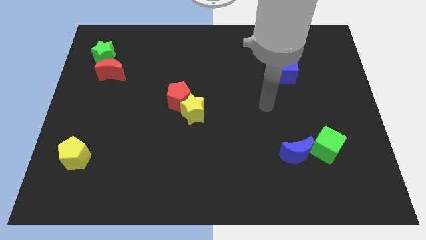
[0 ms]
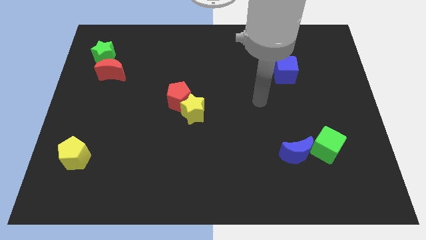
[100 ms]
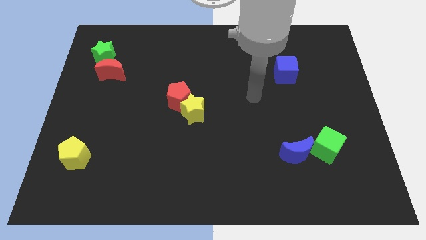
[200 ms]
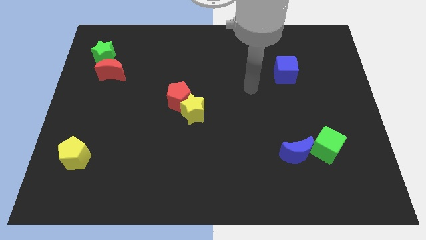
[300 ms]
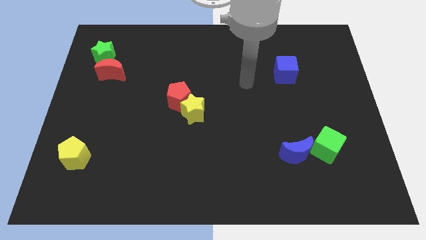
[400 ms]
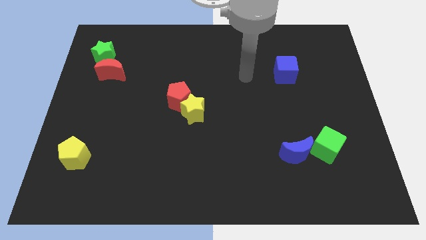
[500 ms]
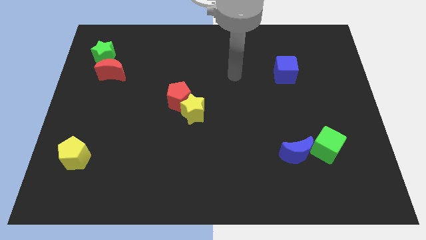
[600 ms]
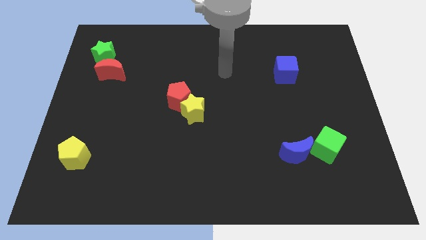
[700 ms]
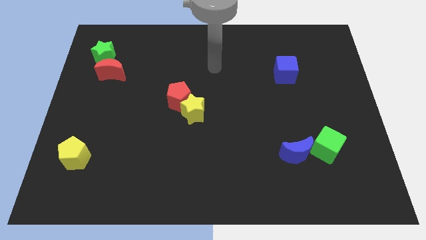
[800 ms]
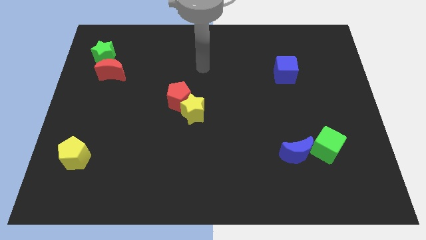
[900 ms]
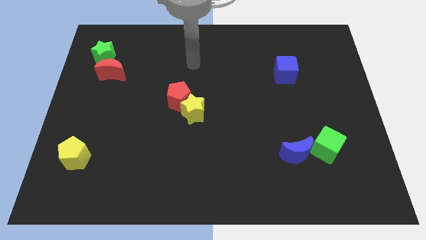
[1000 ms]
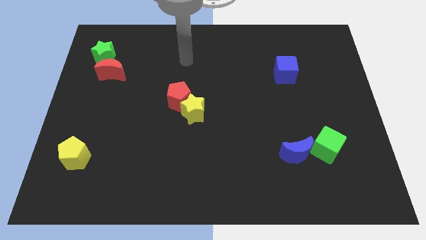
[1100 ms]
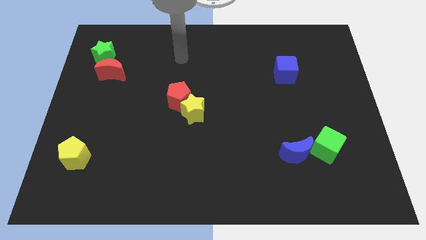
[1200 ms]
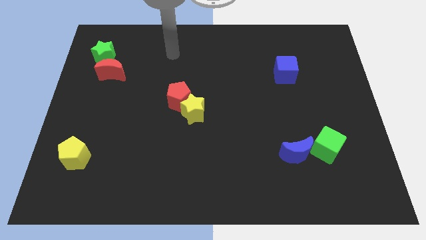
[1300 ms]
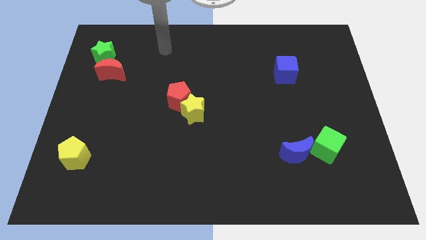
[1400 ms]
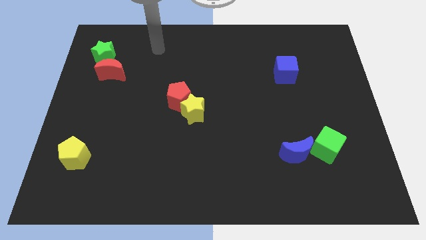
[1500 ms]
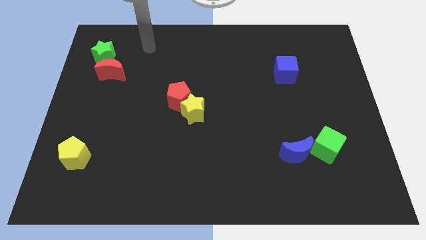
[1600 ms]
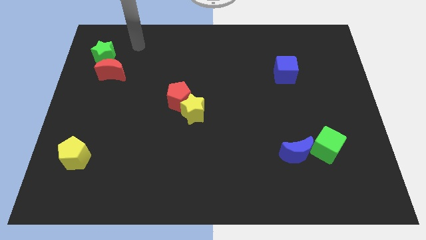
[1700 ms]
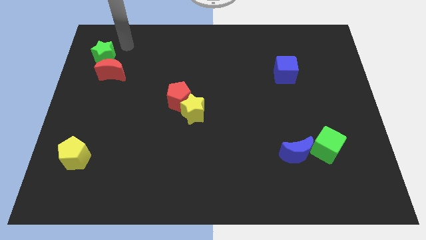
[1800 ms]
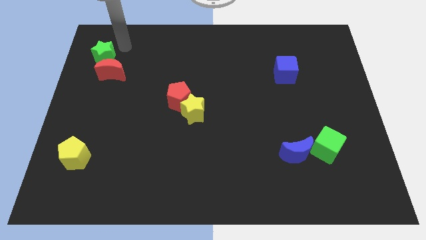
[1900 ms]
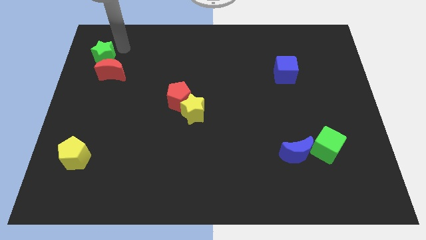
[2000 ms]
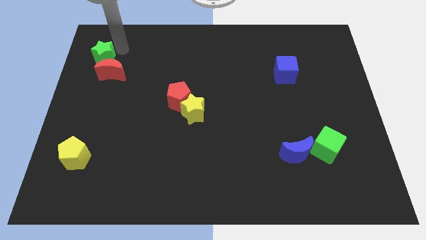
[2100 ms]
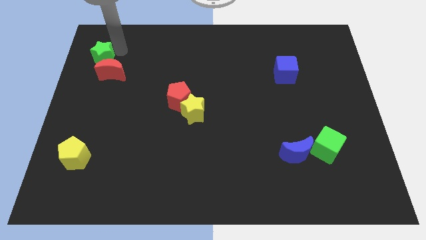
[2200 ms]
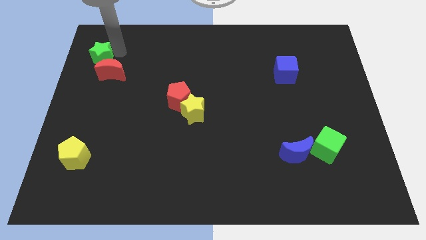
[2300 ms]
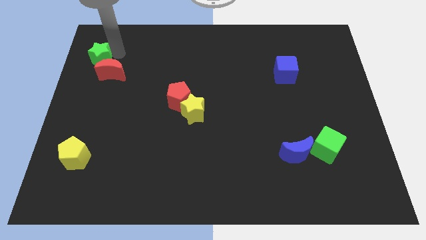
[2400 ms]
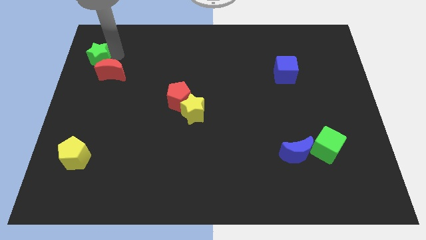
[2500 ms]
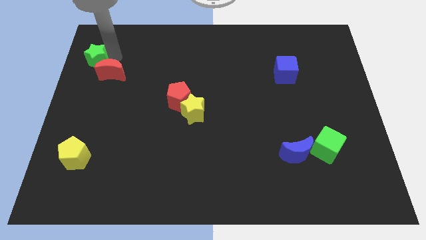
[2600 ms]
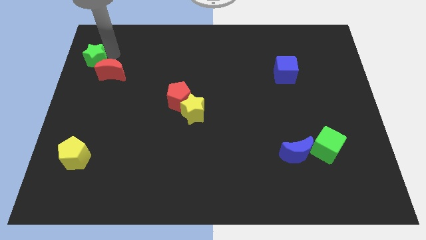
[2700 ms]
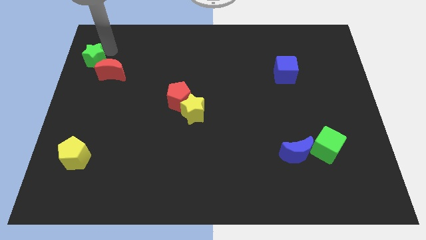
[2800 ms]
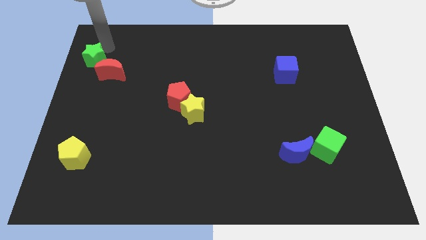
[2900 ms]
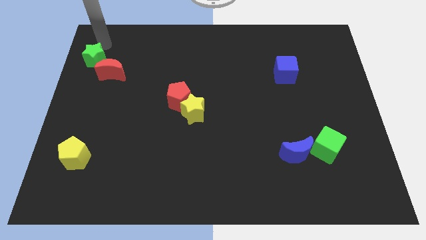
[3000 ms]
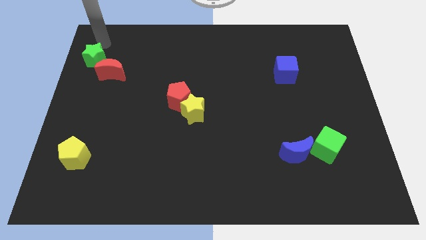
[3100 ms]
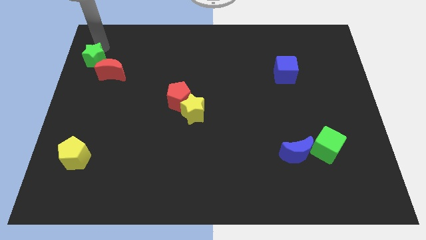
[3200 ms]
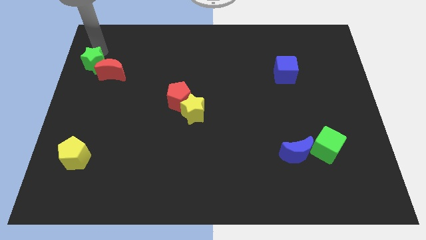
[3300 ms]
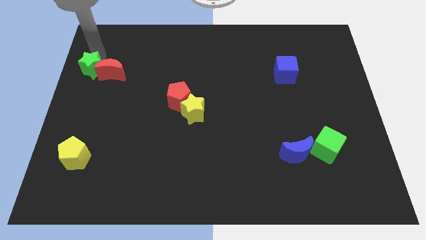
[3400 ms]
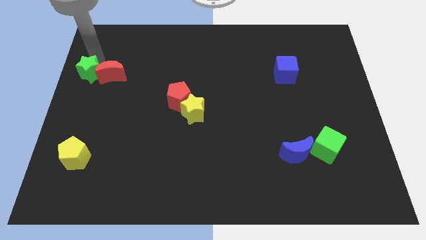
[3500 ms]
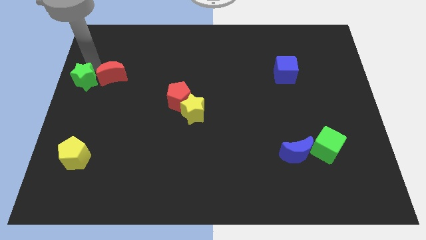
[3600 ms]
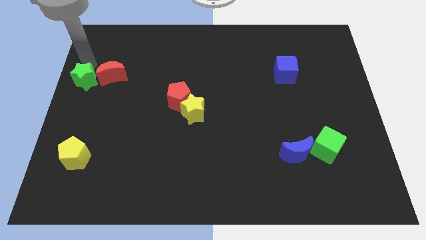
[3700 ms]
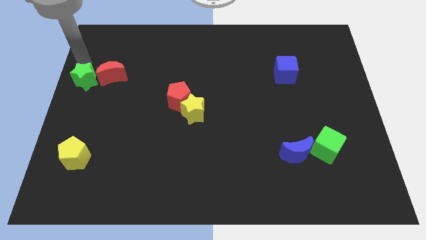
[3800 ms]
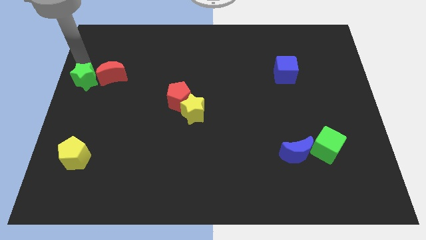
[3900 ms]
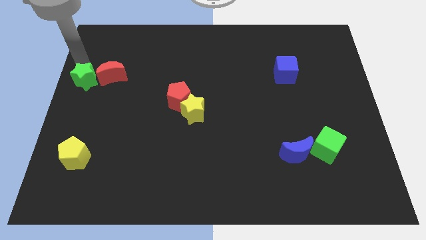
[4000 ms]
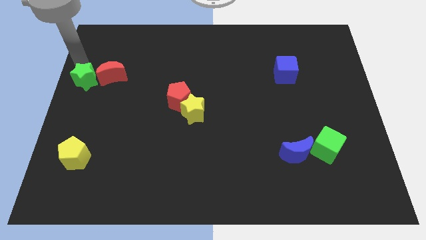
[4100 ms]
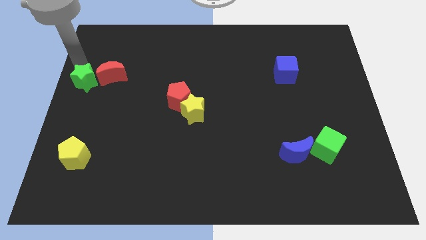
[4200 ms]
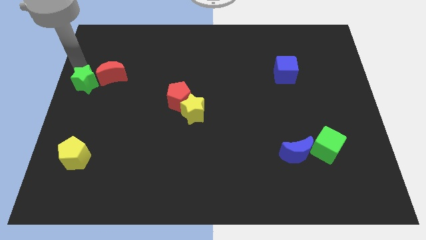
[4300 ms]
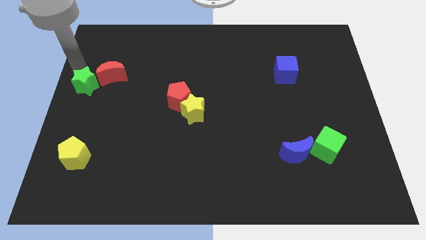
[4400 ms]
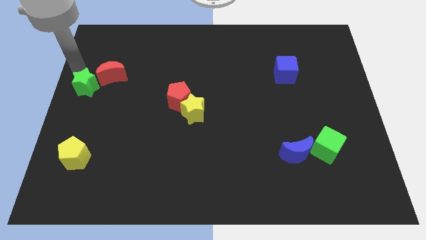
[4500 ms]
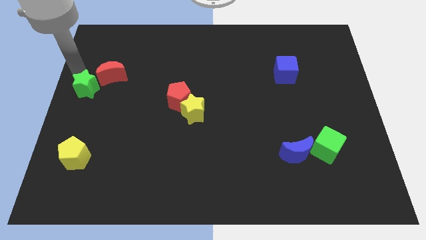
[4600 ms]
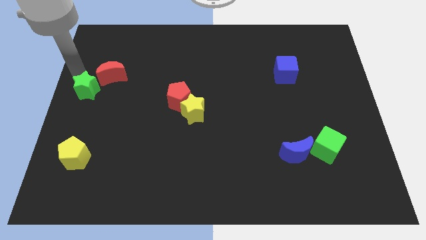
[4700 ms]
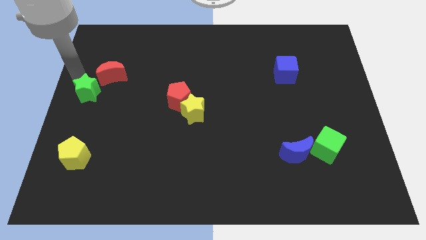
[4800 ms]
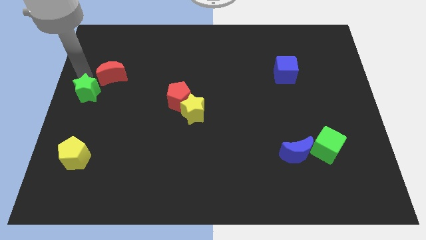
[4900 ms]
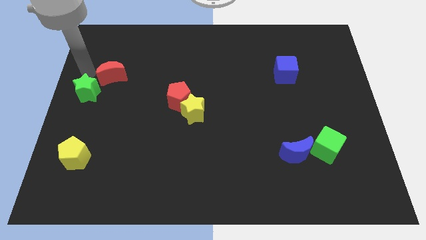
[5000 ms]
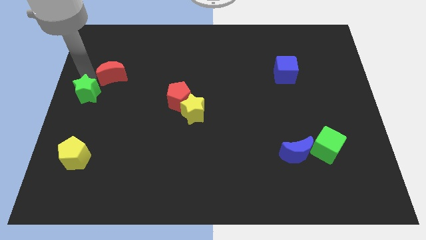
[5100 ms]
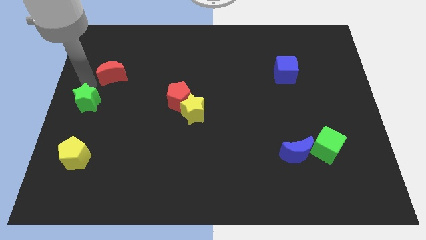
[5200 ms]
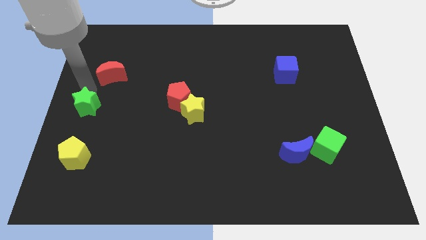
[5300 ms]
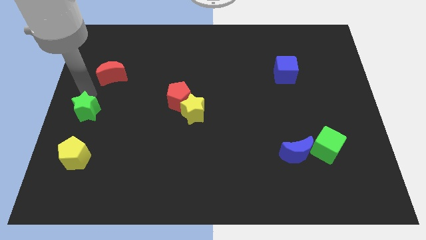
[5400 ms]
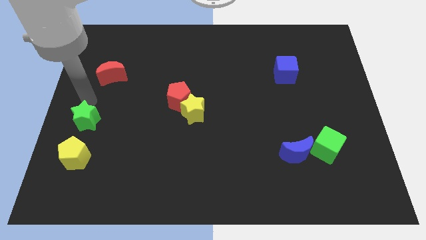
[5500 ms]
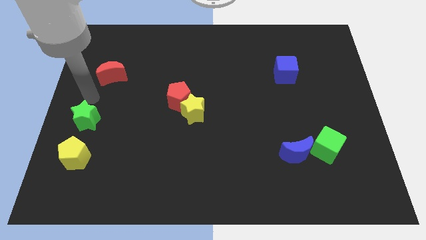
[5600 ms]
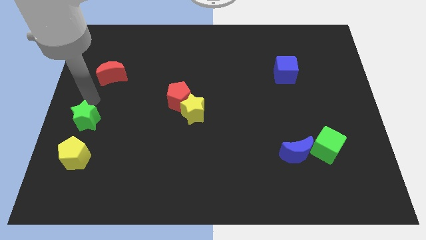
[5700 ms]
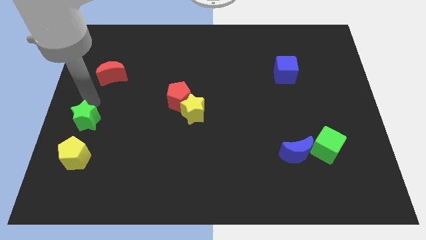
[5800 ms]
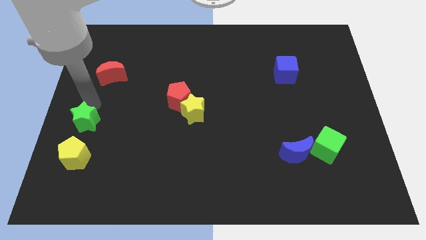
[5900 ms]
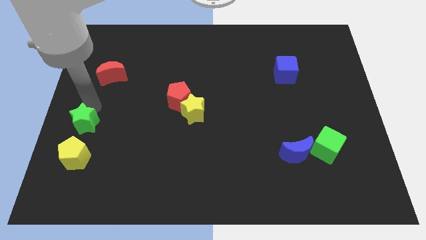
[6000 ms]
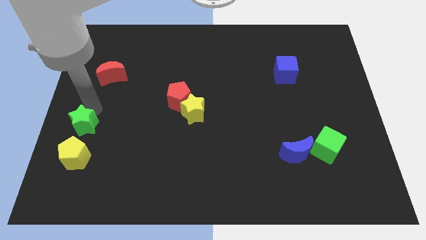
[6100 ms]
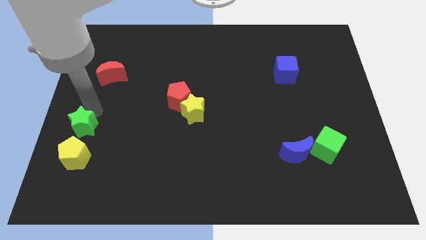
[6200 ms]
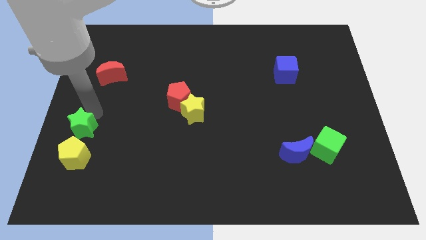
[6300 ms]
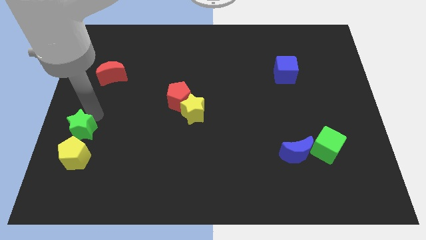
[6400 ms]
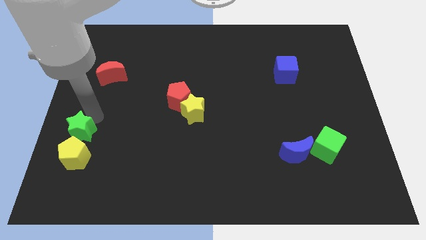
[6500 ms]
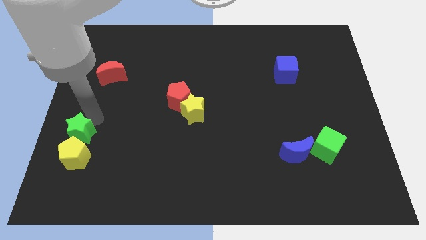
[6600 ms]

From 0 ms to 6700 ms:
put the green star next to the yellow pentagon

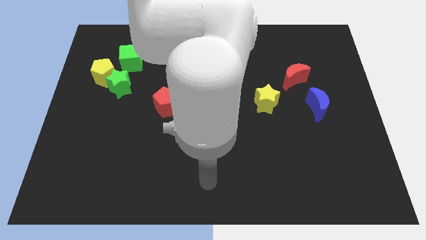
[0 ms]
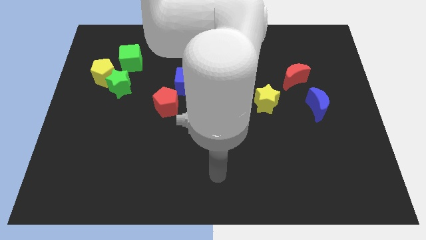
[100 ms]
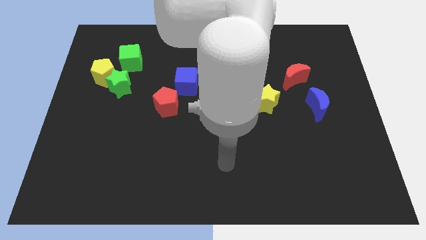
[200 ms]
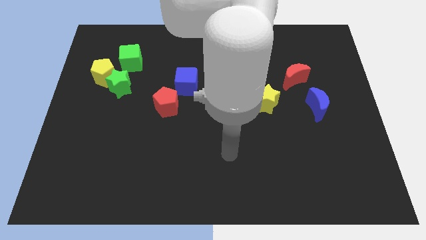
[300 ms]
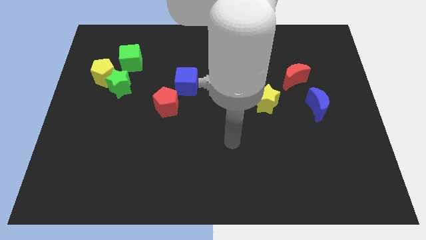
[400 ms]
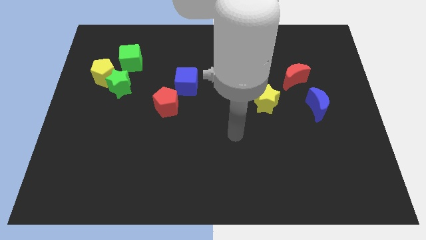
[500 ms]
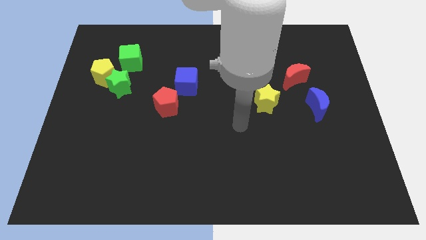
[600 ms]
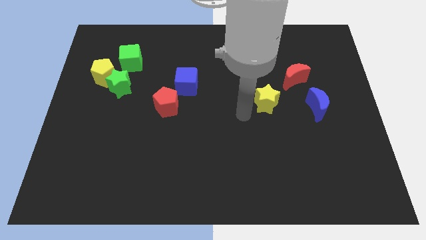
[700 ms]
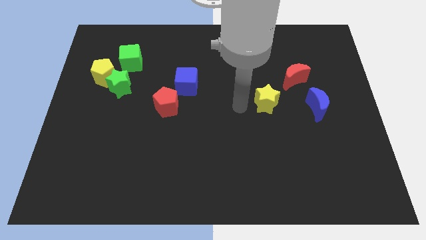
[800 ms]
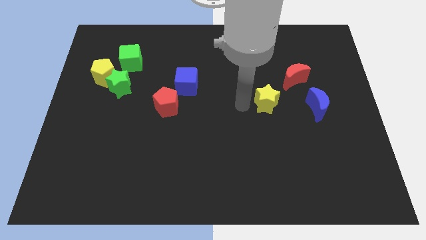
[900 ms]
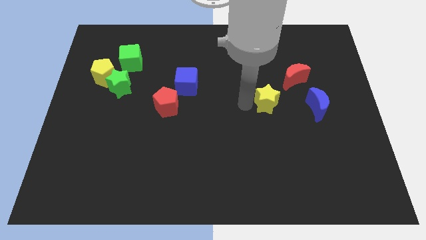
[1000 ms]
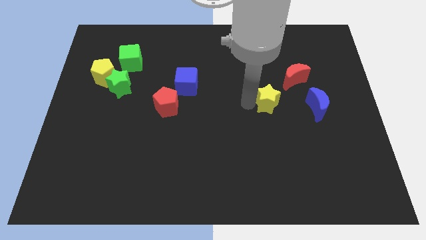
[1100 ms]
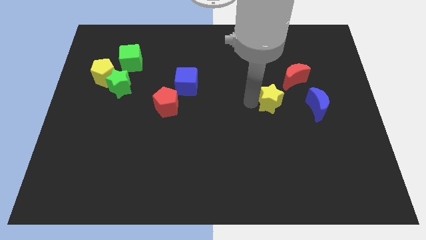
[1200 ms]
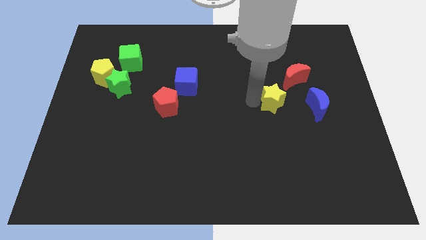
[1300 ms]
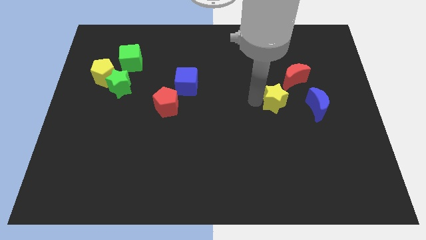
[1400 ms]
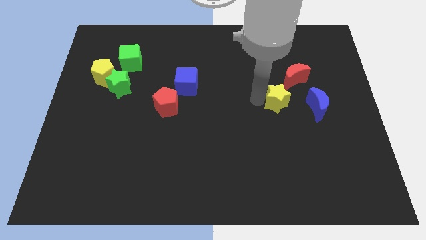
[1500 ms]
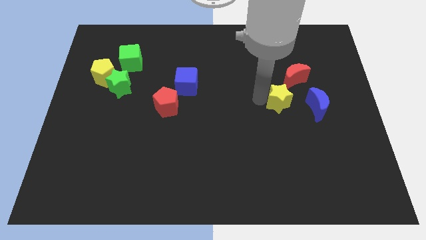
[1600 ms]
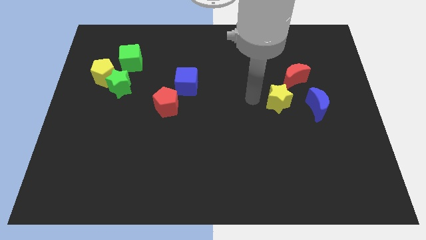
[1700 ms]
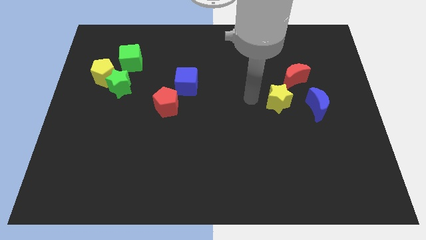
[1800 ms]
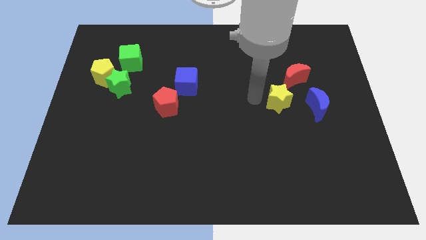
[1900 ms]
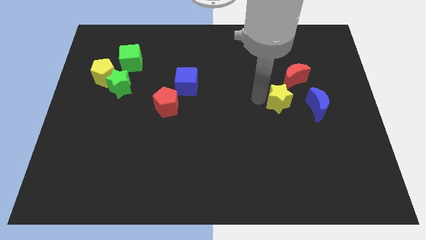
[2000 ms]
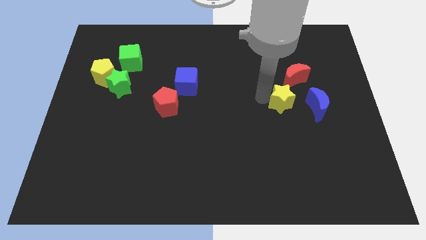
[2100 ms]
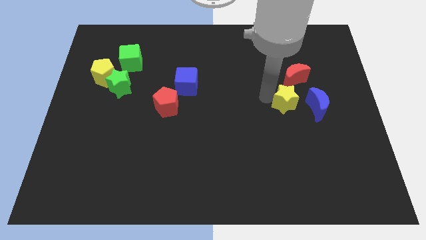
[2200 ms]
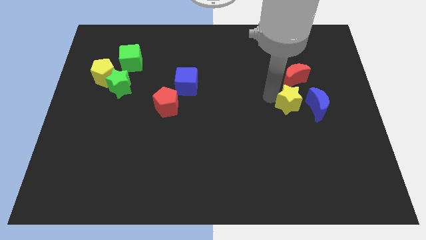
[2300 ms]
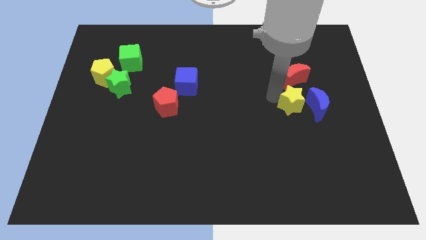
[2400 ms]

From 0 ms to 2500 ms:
put the yellow star next to the blue moon
